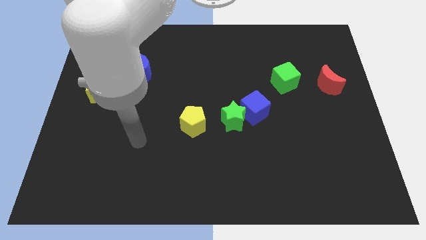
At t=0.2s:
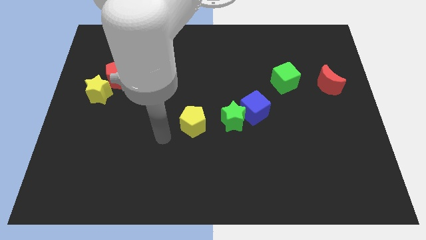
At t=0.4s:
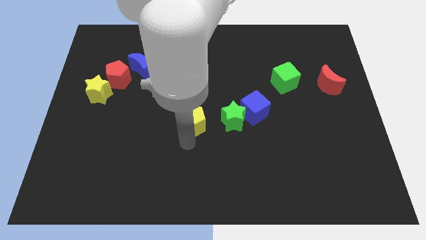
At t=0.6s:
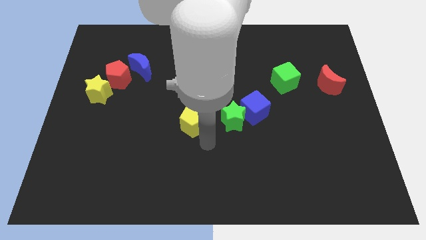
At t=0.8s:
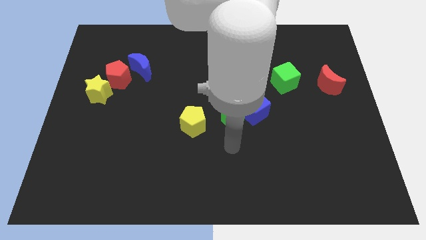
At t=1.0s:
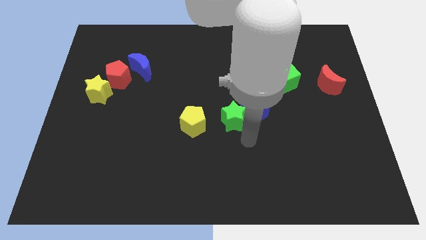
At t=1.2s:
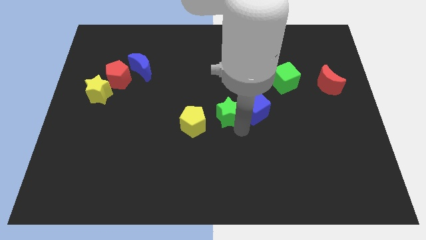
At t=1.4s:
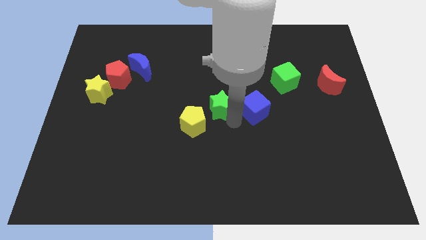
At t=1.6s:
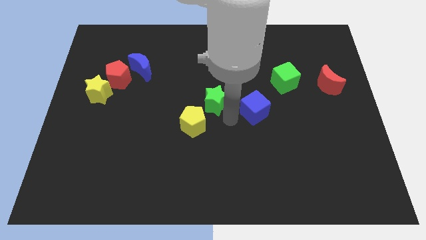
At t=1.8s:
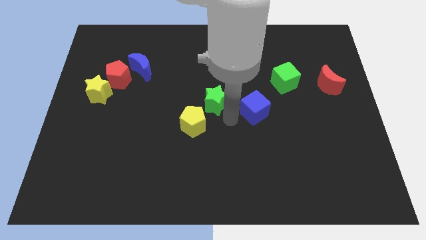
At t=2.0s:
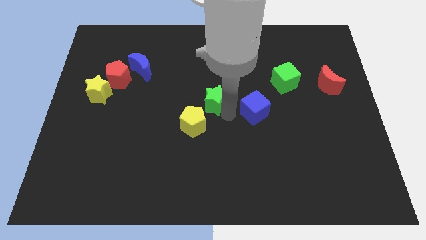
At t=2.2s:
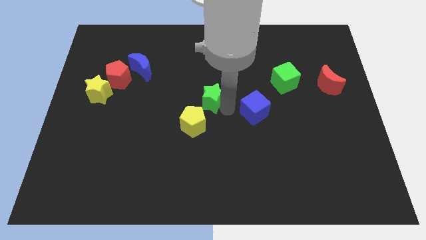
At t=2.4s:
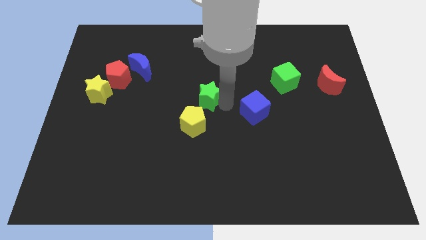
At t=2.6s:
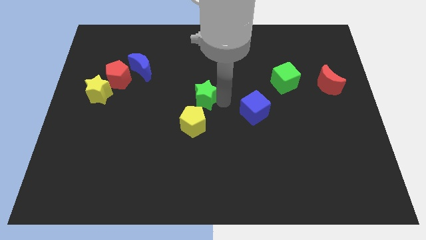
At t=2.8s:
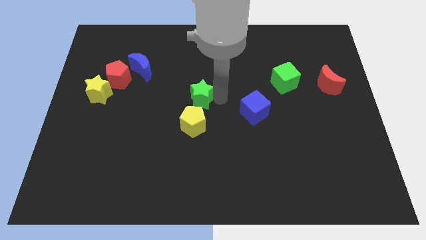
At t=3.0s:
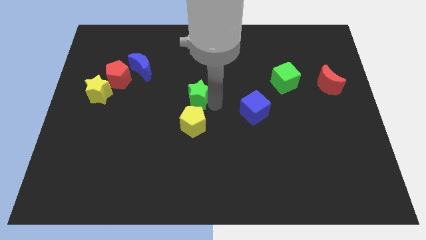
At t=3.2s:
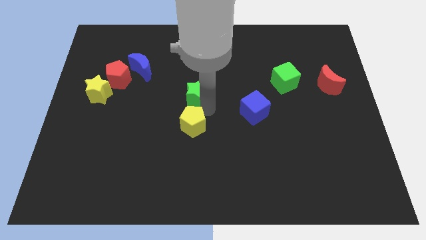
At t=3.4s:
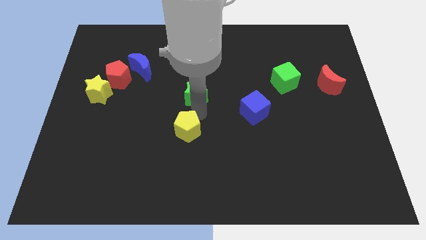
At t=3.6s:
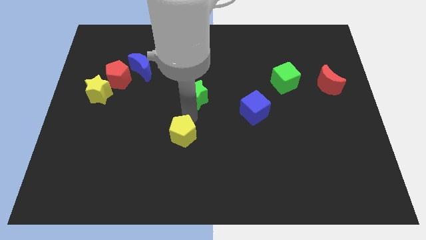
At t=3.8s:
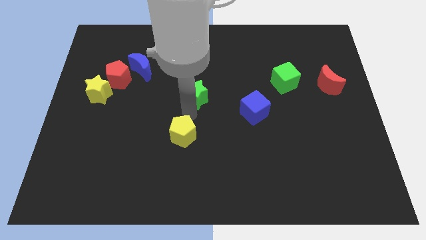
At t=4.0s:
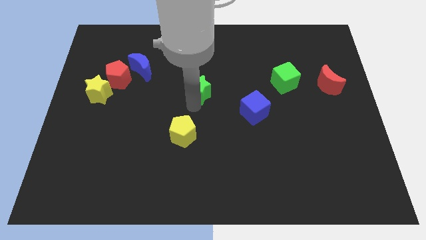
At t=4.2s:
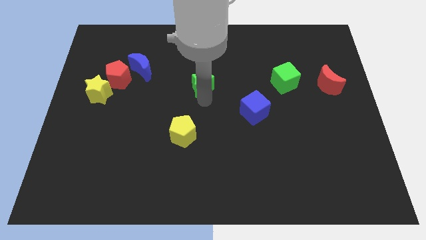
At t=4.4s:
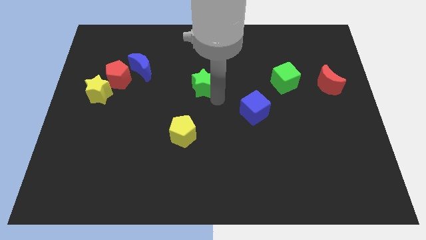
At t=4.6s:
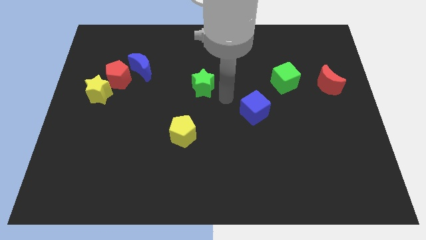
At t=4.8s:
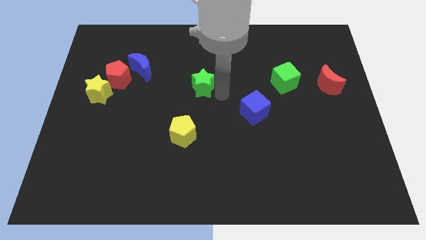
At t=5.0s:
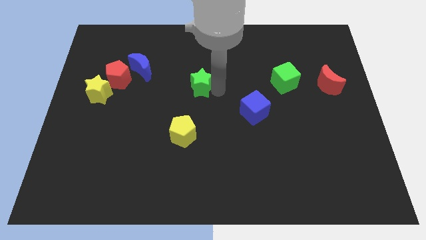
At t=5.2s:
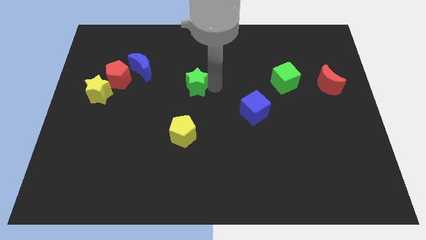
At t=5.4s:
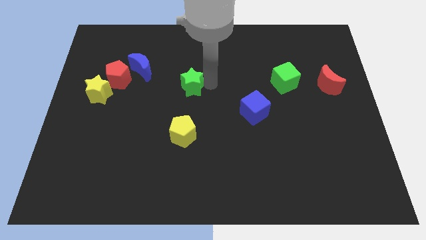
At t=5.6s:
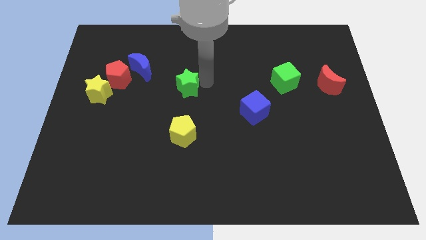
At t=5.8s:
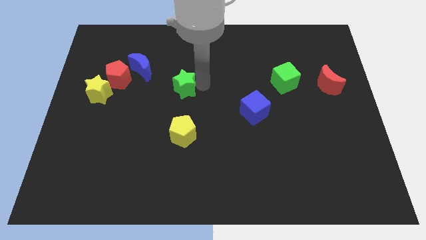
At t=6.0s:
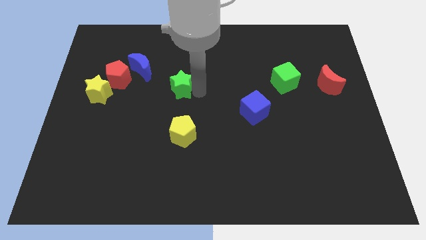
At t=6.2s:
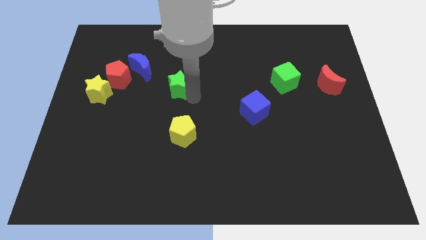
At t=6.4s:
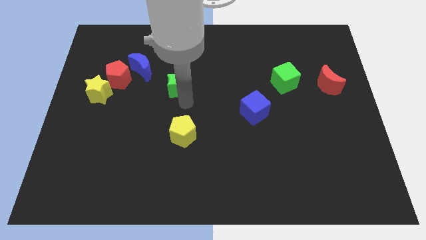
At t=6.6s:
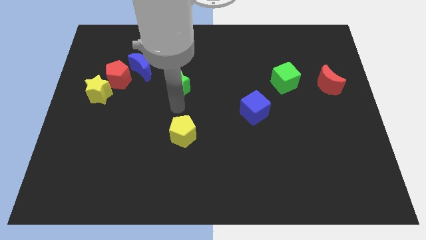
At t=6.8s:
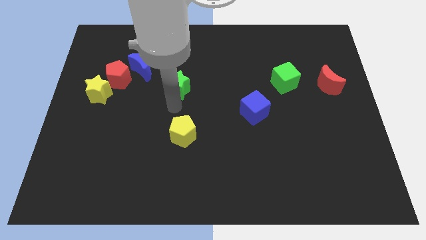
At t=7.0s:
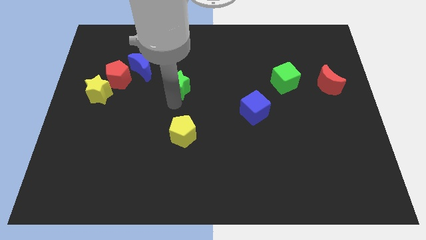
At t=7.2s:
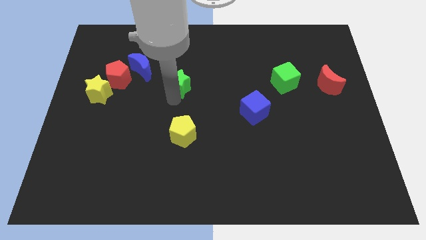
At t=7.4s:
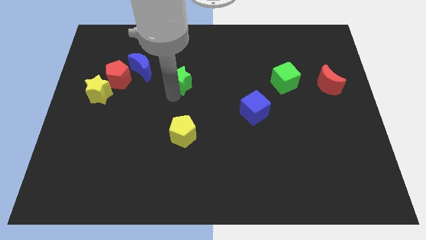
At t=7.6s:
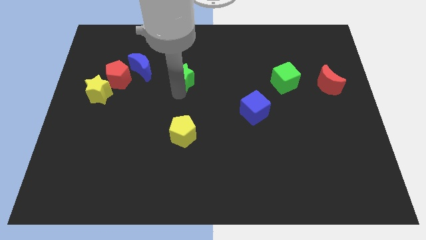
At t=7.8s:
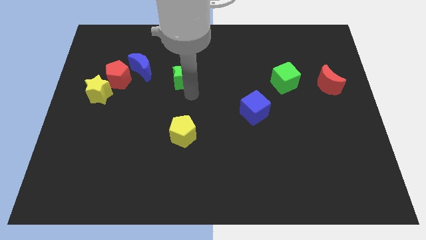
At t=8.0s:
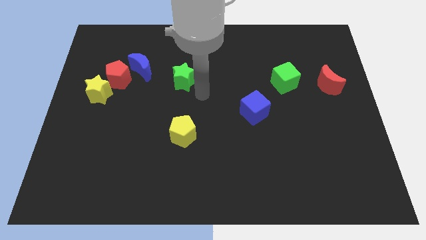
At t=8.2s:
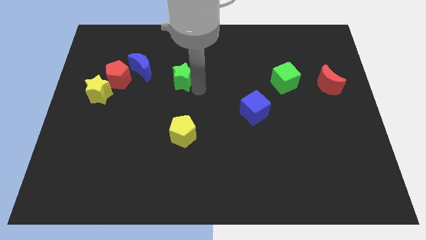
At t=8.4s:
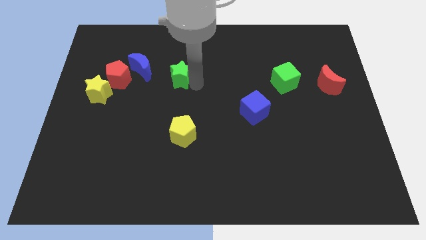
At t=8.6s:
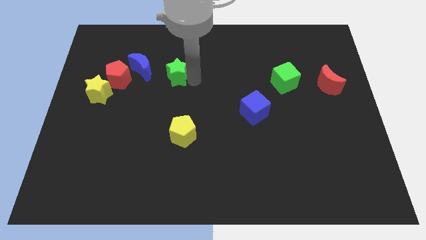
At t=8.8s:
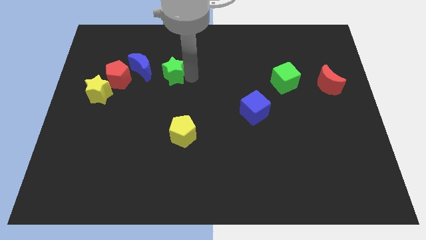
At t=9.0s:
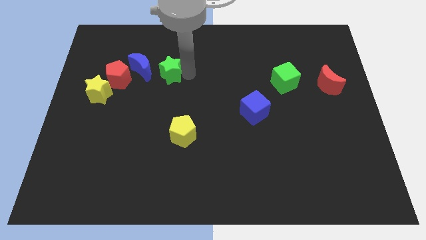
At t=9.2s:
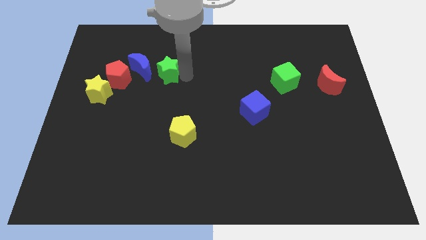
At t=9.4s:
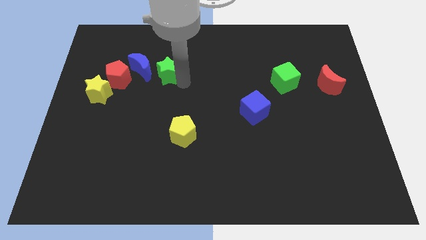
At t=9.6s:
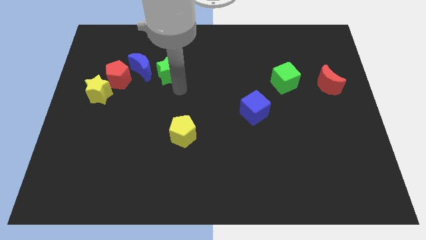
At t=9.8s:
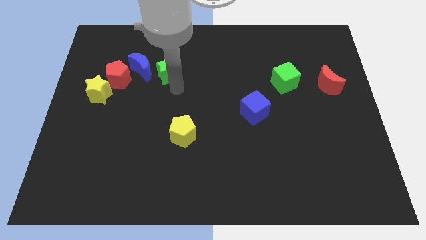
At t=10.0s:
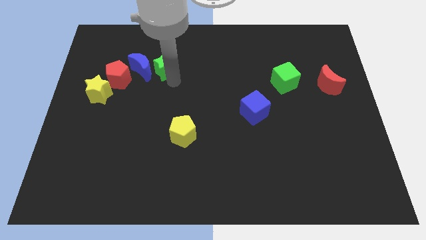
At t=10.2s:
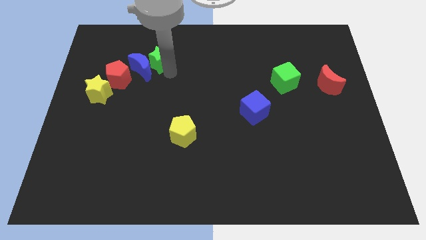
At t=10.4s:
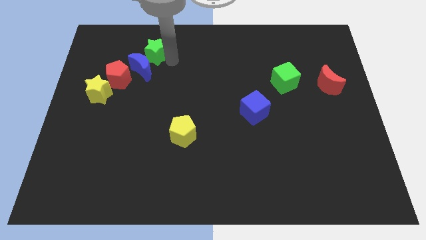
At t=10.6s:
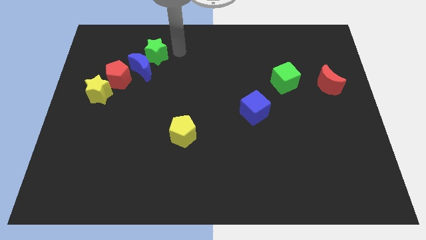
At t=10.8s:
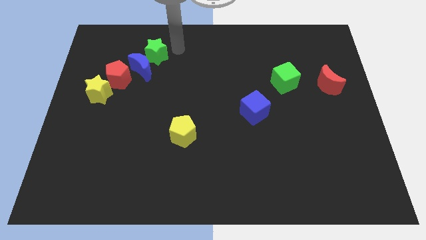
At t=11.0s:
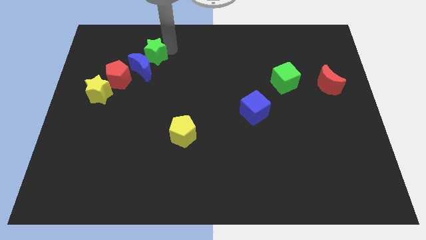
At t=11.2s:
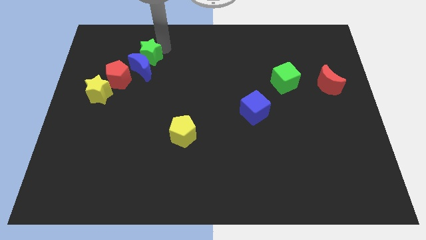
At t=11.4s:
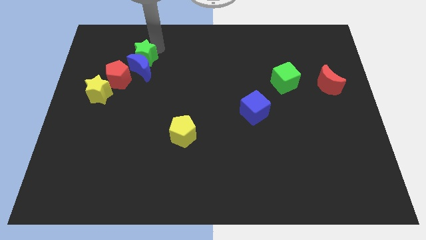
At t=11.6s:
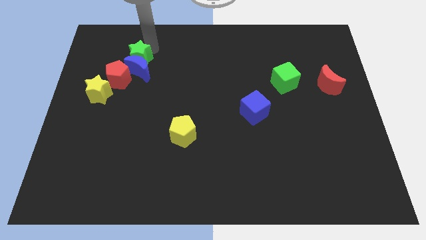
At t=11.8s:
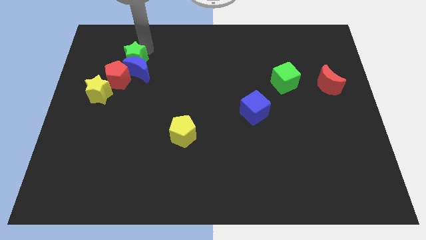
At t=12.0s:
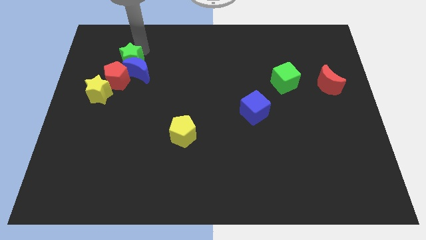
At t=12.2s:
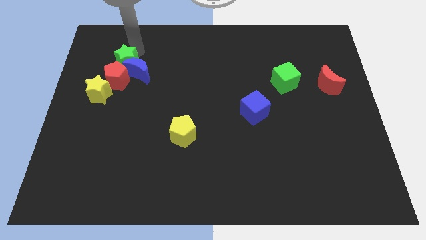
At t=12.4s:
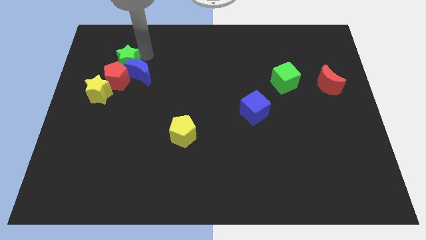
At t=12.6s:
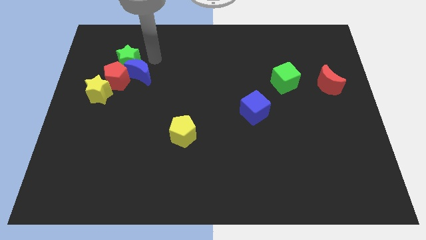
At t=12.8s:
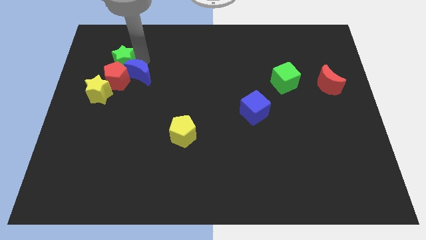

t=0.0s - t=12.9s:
slide the green star to the top left of the red pentagon

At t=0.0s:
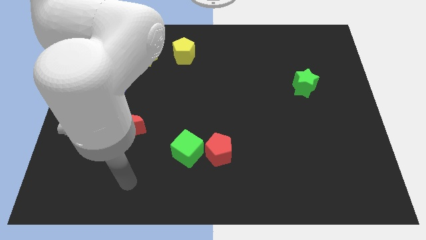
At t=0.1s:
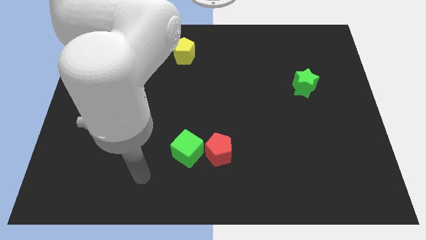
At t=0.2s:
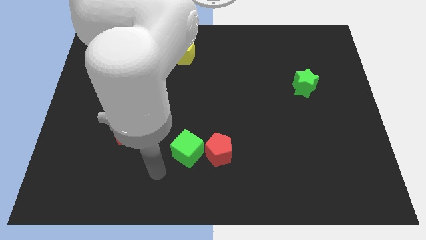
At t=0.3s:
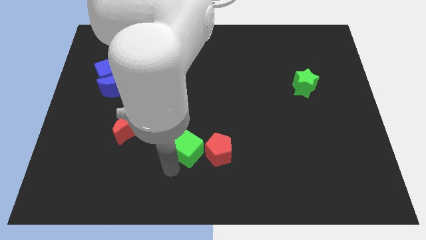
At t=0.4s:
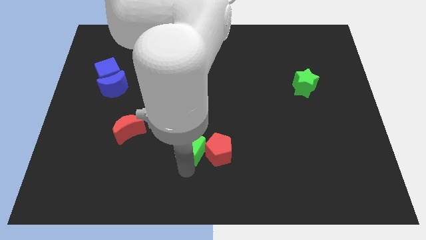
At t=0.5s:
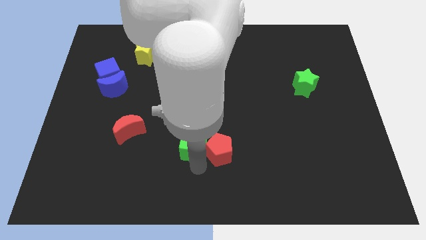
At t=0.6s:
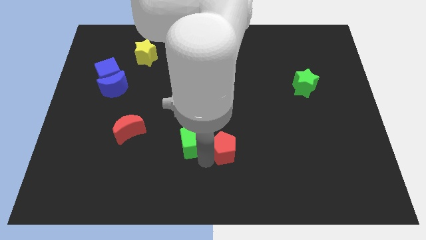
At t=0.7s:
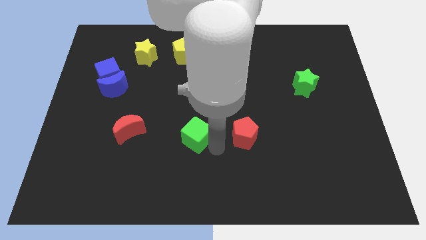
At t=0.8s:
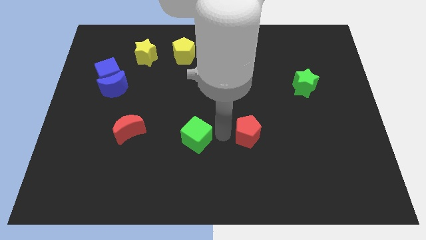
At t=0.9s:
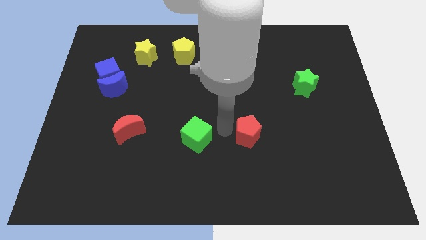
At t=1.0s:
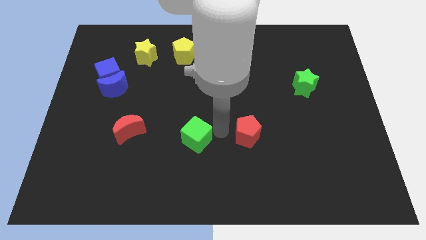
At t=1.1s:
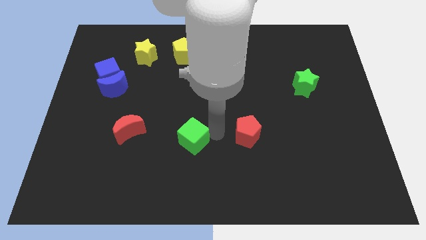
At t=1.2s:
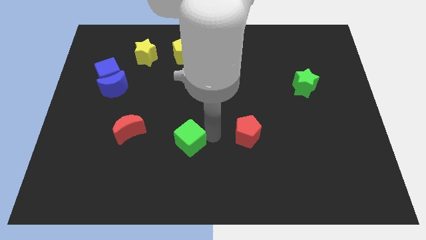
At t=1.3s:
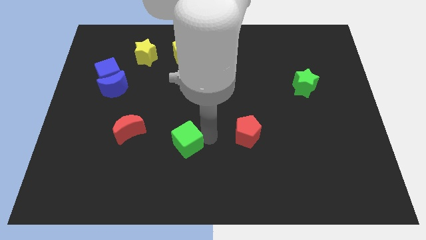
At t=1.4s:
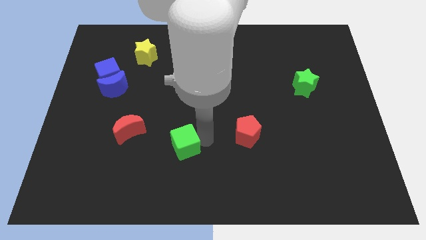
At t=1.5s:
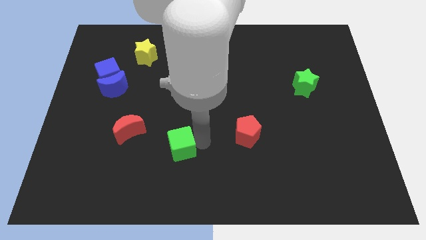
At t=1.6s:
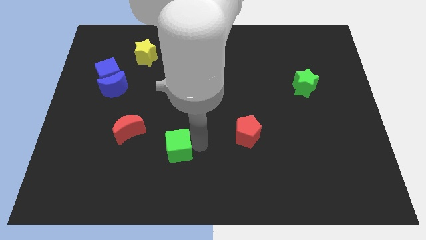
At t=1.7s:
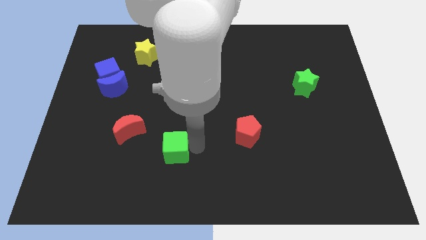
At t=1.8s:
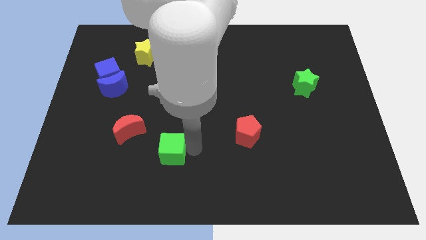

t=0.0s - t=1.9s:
push the green cube diagonally down and to the right of the red moon

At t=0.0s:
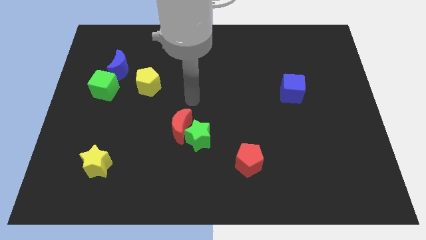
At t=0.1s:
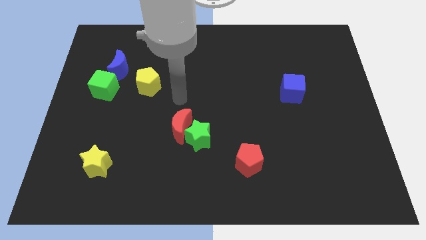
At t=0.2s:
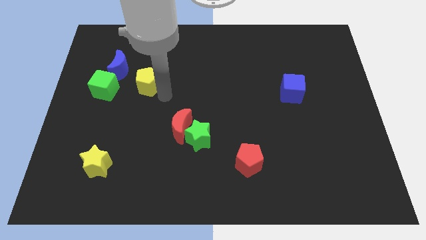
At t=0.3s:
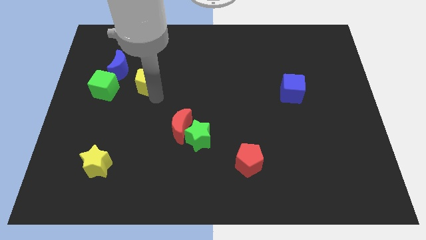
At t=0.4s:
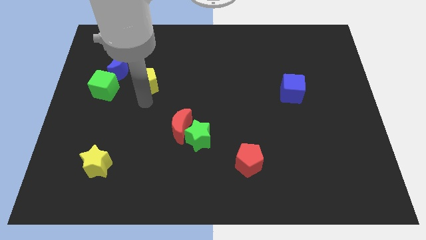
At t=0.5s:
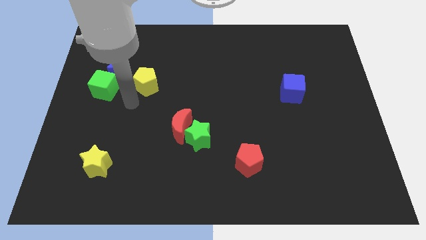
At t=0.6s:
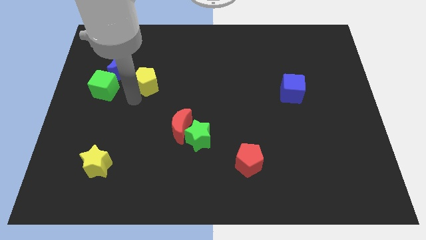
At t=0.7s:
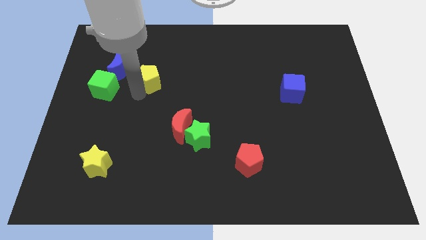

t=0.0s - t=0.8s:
slide the yellow pentagon to the right side of the blue moon
